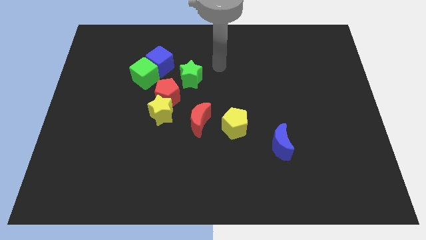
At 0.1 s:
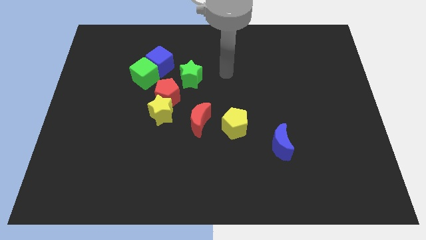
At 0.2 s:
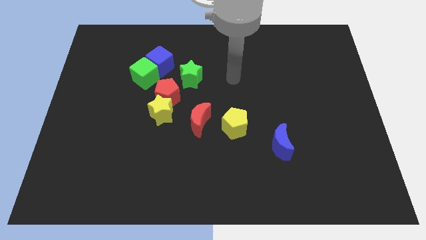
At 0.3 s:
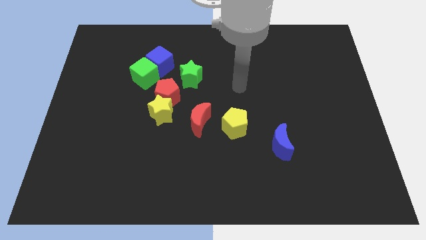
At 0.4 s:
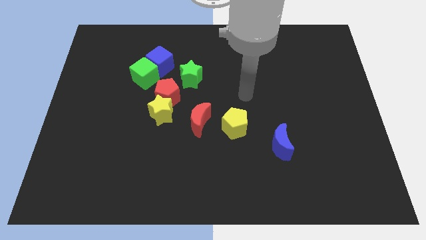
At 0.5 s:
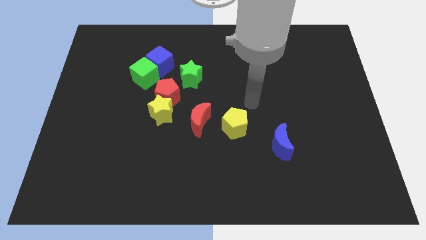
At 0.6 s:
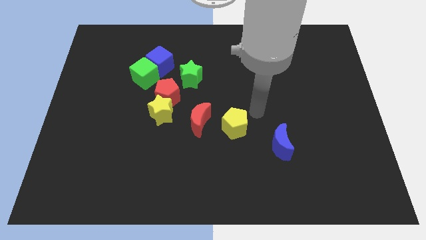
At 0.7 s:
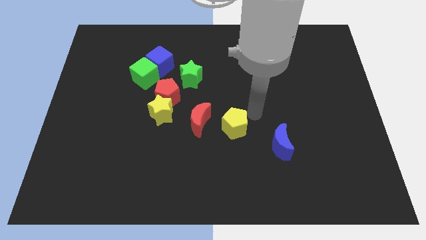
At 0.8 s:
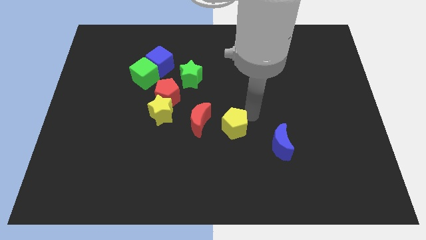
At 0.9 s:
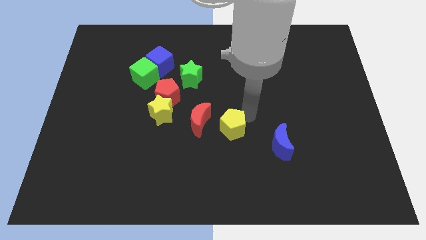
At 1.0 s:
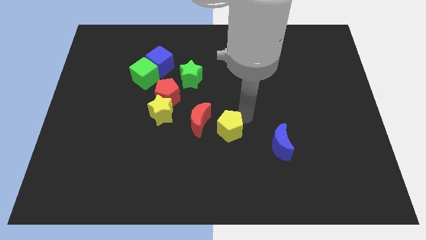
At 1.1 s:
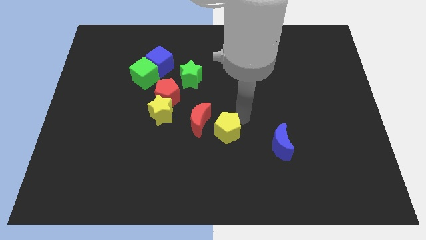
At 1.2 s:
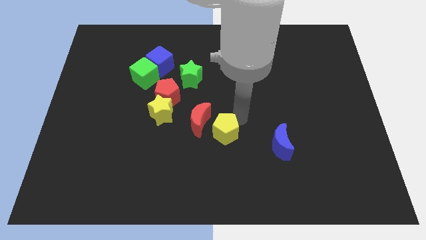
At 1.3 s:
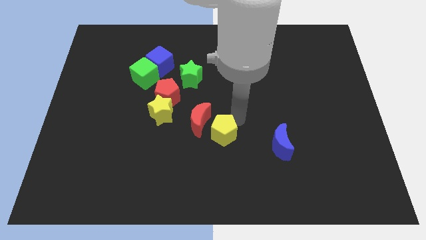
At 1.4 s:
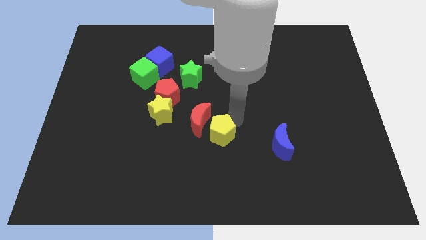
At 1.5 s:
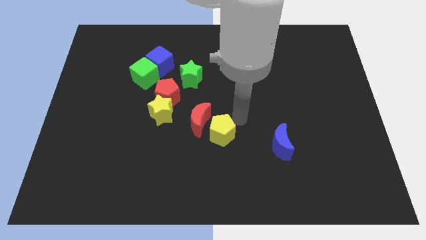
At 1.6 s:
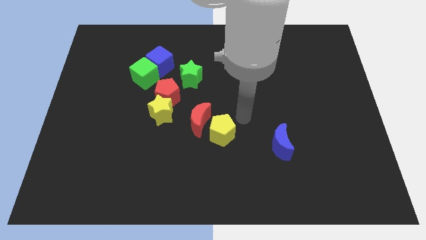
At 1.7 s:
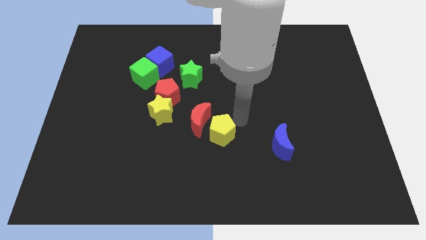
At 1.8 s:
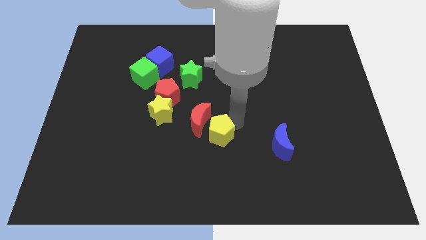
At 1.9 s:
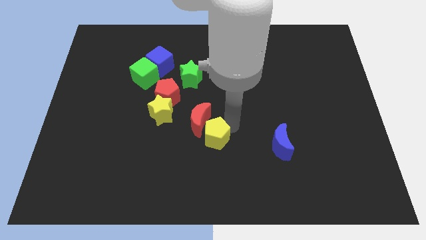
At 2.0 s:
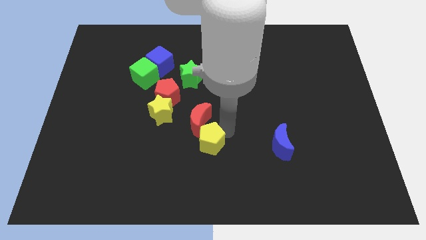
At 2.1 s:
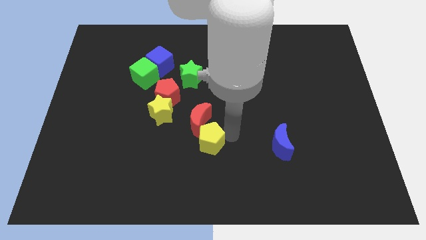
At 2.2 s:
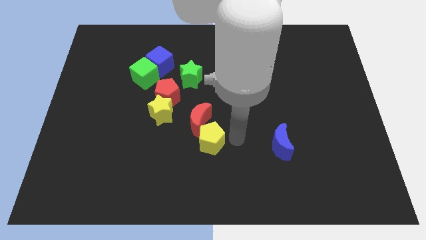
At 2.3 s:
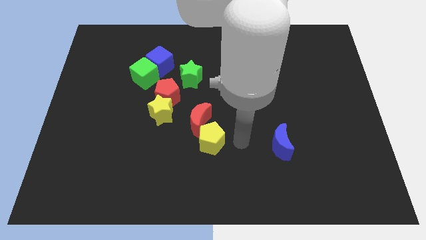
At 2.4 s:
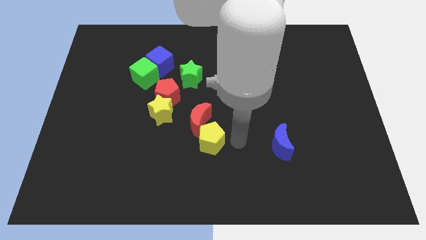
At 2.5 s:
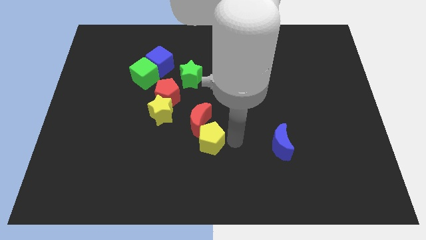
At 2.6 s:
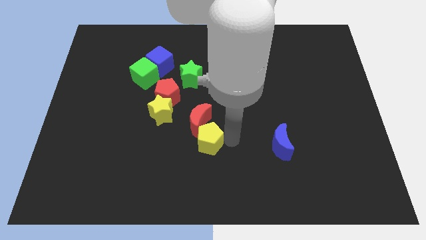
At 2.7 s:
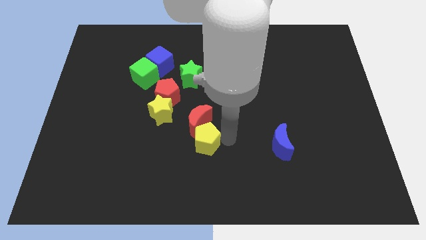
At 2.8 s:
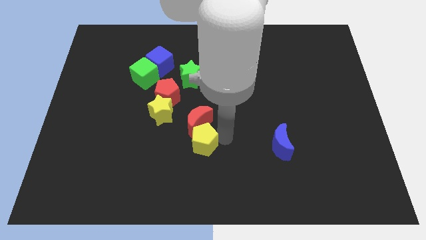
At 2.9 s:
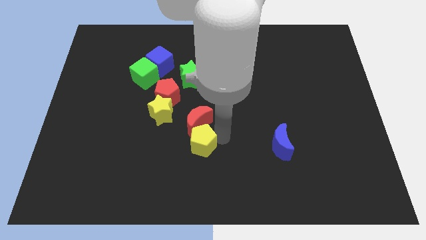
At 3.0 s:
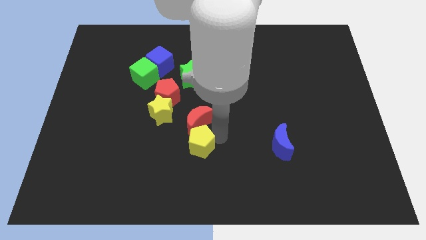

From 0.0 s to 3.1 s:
move the yellow pentagon to the left a little

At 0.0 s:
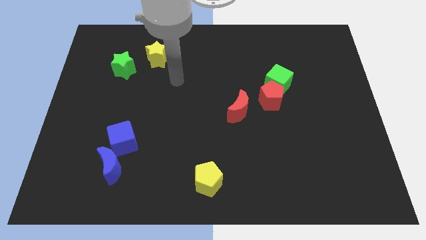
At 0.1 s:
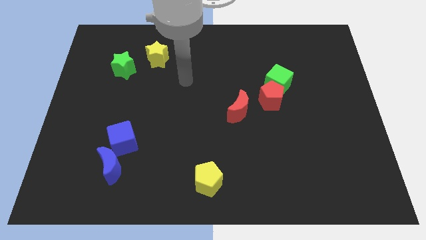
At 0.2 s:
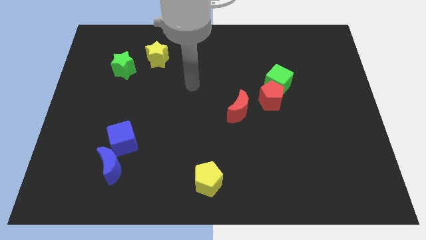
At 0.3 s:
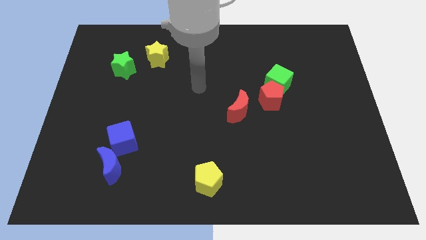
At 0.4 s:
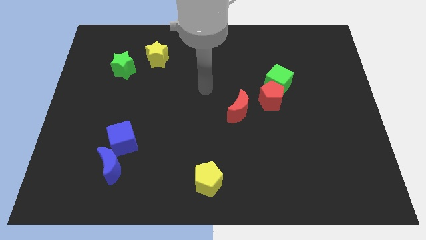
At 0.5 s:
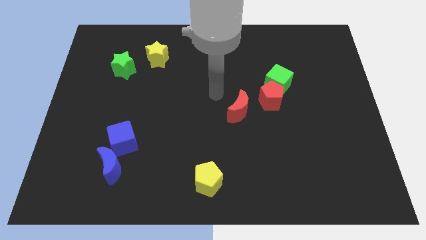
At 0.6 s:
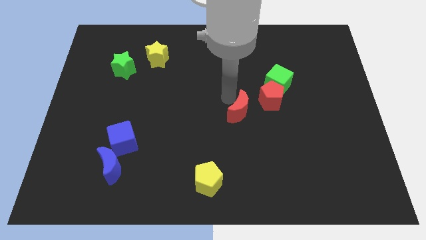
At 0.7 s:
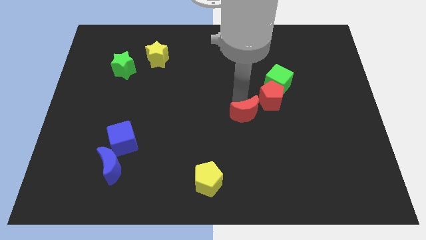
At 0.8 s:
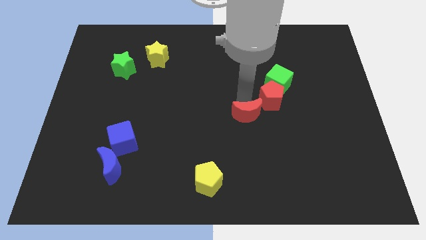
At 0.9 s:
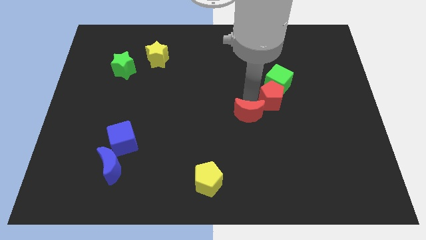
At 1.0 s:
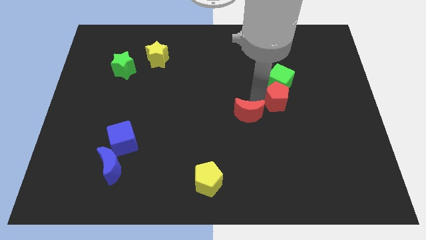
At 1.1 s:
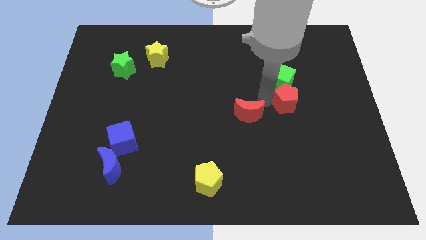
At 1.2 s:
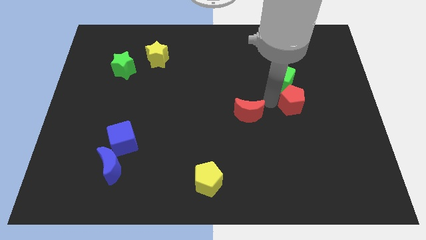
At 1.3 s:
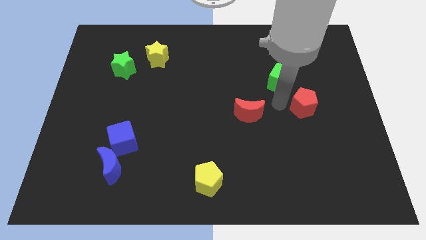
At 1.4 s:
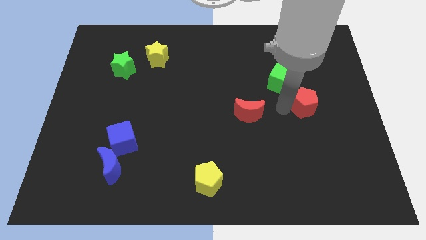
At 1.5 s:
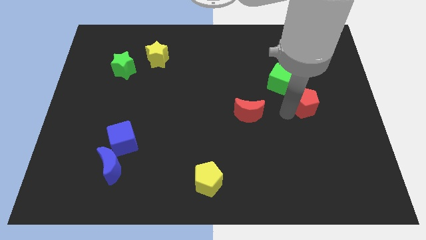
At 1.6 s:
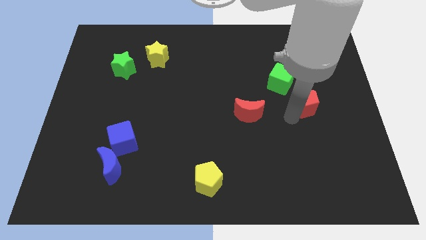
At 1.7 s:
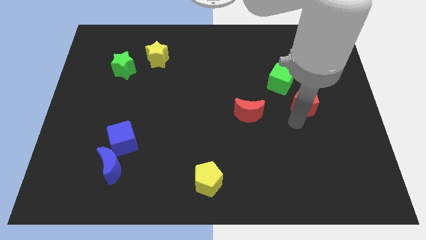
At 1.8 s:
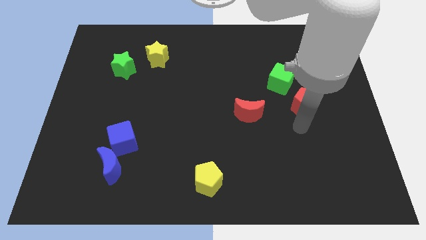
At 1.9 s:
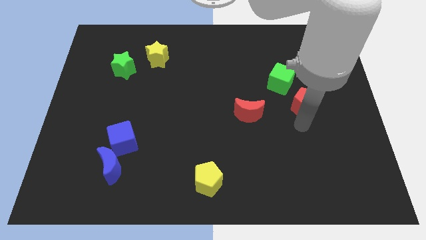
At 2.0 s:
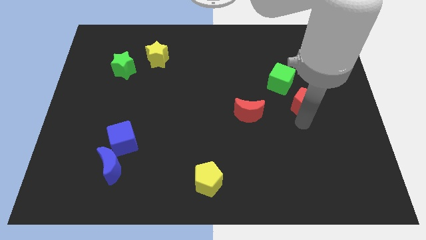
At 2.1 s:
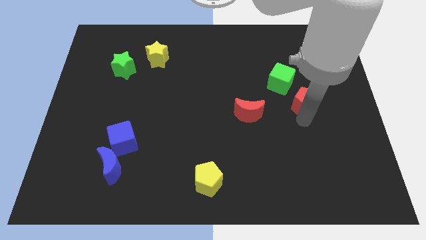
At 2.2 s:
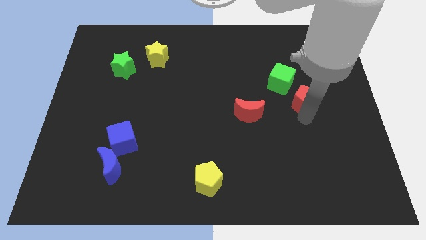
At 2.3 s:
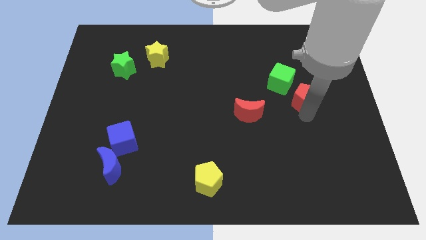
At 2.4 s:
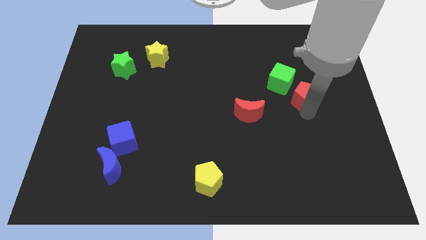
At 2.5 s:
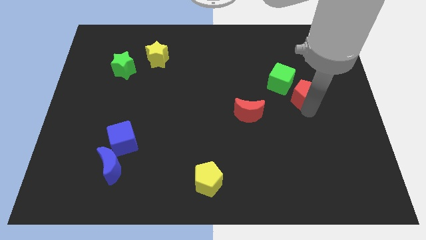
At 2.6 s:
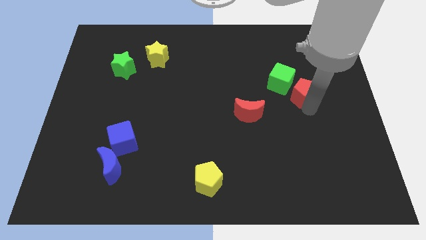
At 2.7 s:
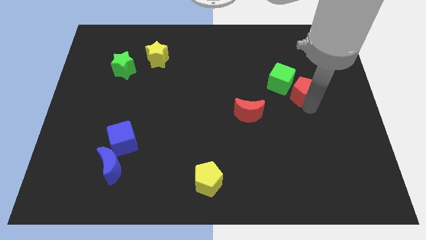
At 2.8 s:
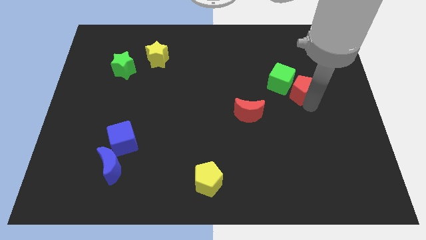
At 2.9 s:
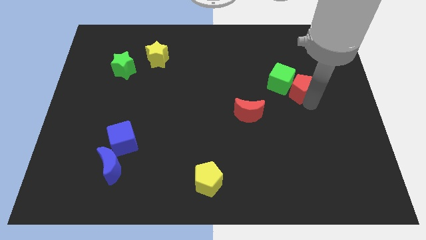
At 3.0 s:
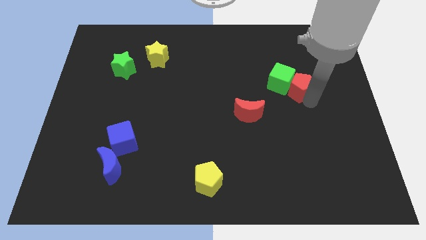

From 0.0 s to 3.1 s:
slightly slide the red pentagon up and right

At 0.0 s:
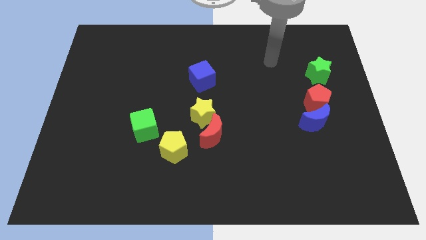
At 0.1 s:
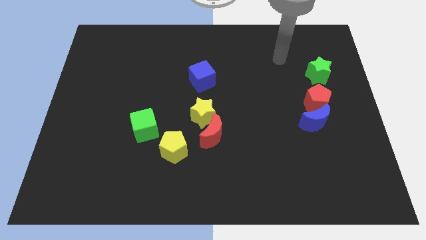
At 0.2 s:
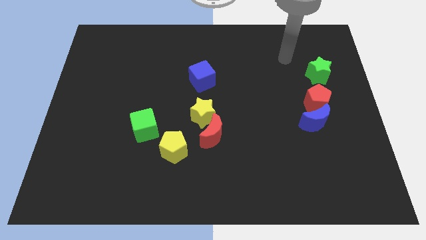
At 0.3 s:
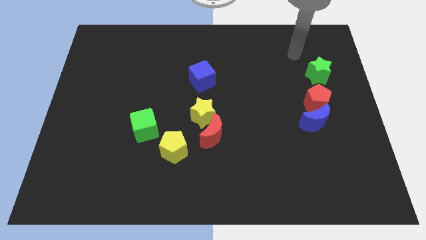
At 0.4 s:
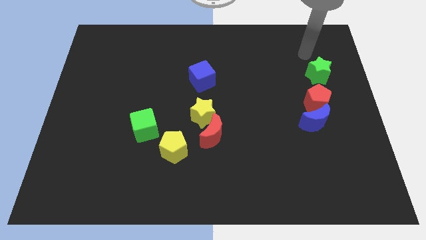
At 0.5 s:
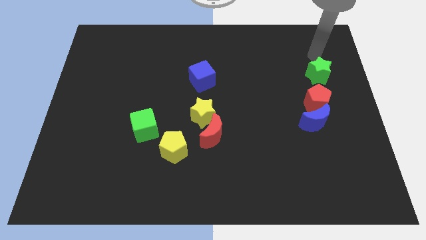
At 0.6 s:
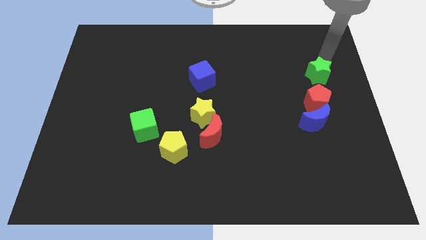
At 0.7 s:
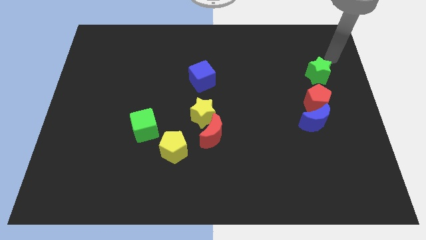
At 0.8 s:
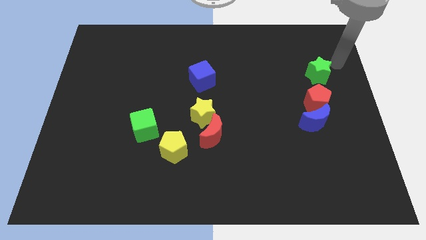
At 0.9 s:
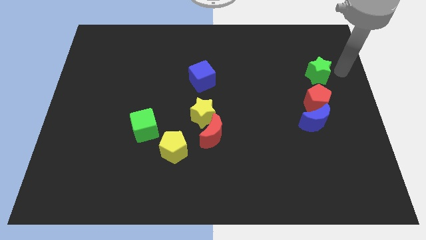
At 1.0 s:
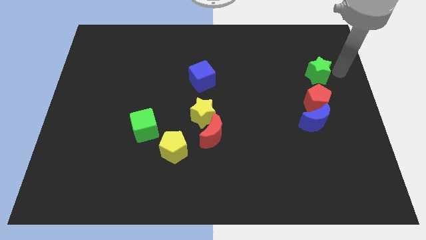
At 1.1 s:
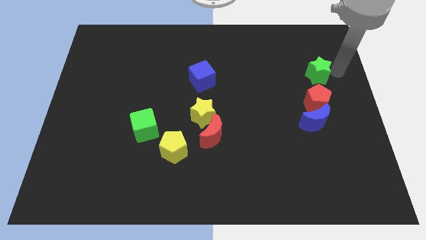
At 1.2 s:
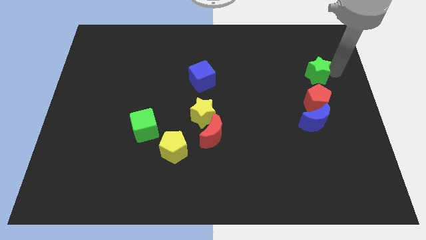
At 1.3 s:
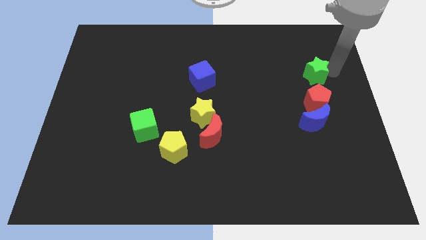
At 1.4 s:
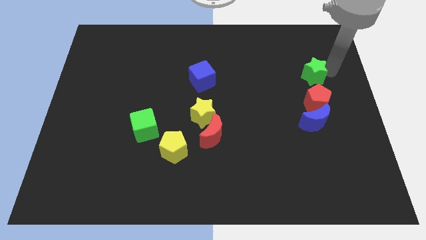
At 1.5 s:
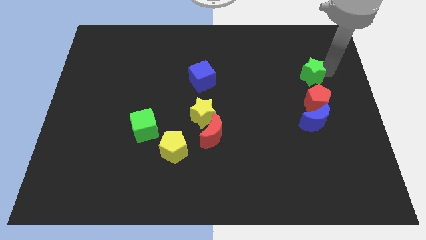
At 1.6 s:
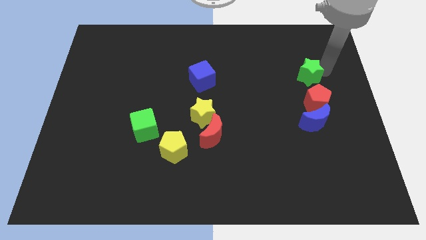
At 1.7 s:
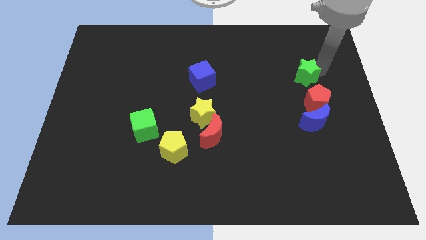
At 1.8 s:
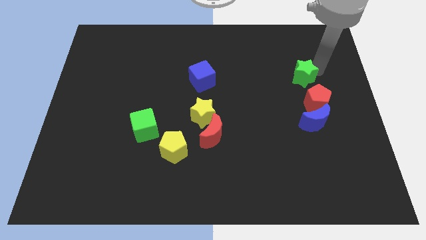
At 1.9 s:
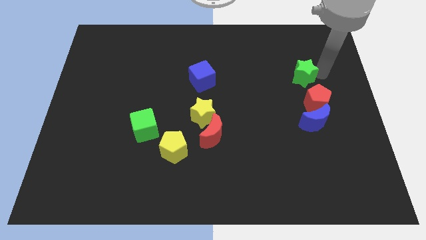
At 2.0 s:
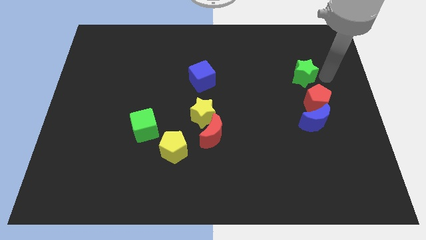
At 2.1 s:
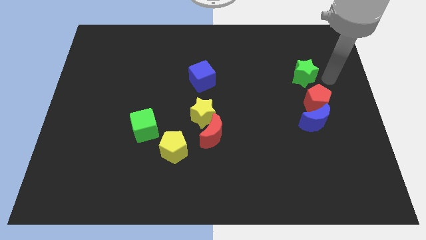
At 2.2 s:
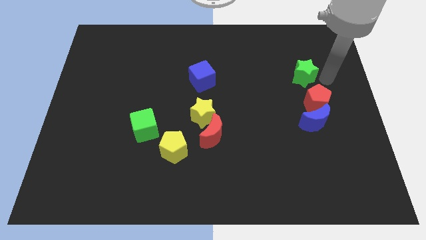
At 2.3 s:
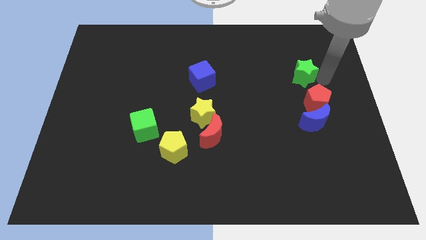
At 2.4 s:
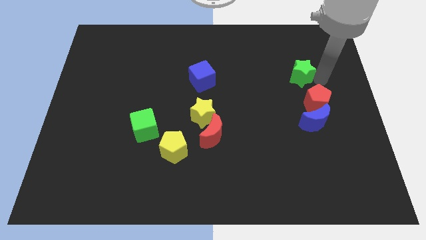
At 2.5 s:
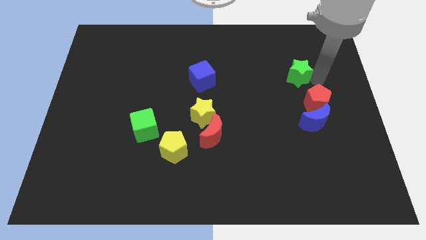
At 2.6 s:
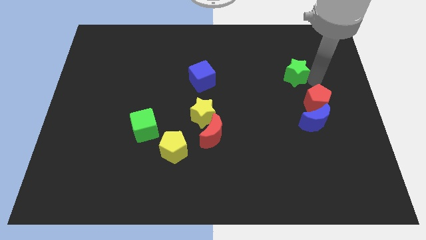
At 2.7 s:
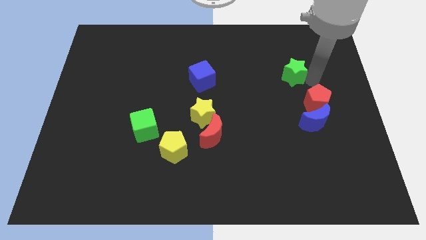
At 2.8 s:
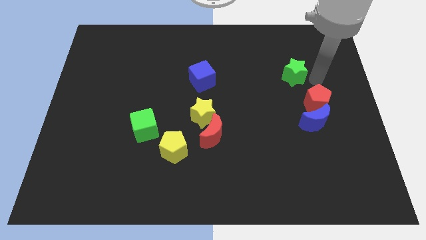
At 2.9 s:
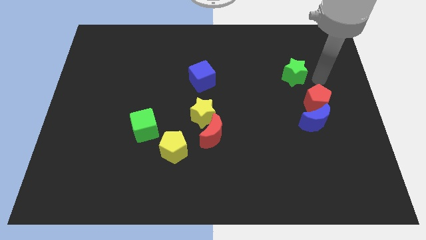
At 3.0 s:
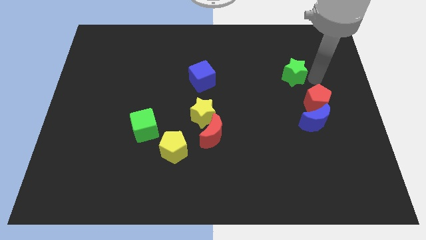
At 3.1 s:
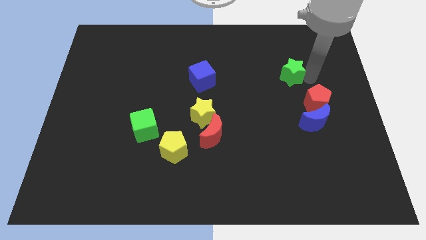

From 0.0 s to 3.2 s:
push the green star to the left slightly
